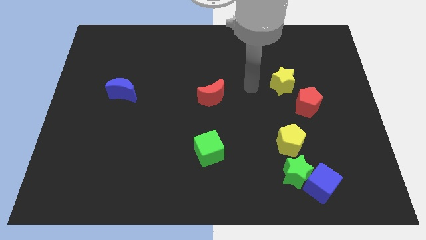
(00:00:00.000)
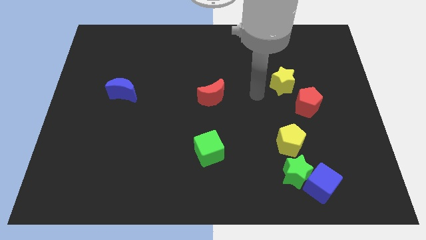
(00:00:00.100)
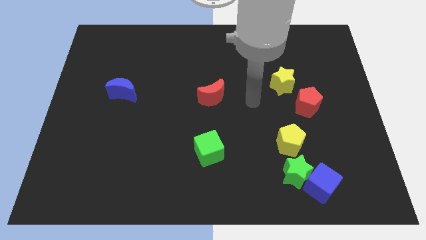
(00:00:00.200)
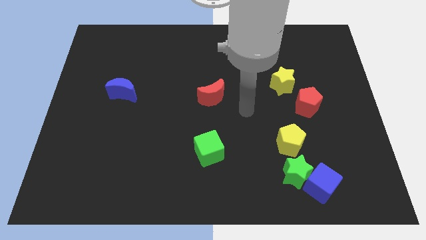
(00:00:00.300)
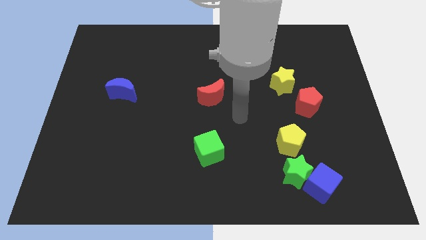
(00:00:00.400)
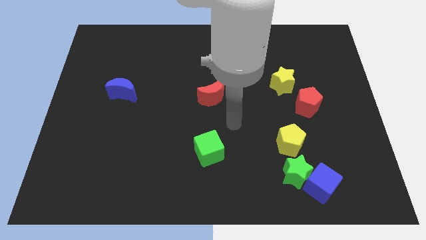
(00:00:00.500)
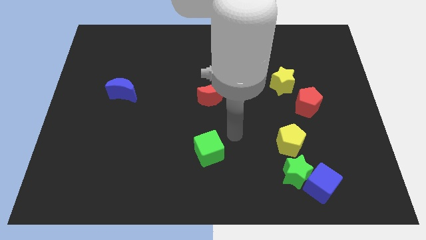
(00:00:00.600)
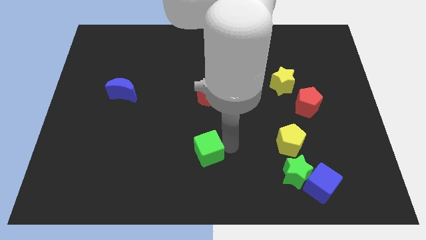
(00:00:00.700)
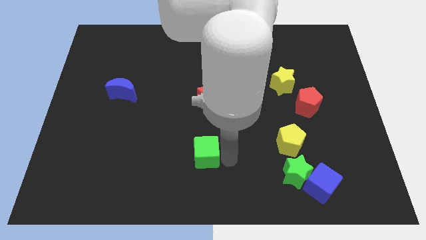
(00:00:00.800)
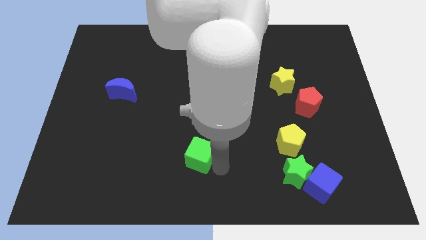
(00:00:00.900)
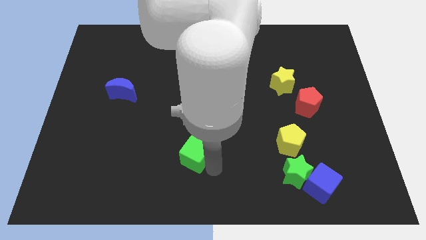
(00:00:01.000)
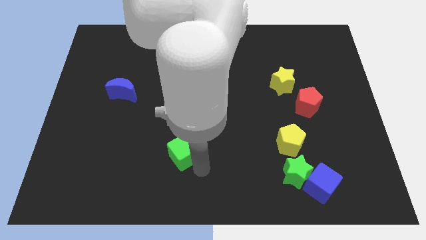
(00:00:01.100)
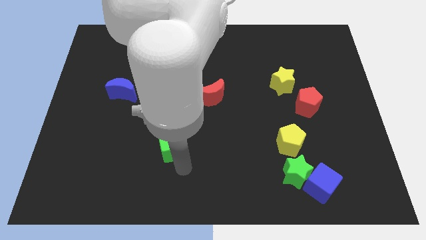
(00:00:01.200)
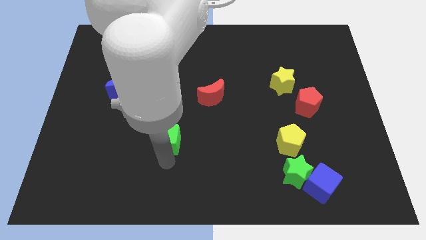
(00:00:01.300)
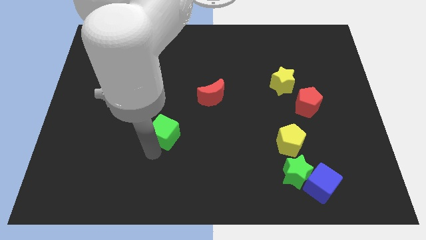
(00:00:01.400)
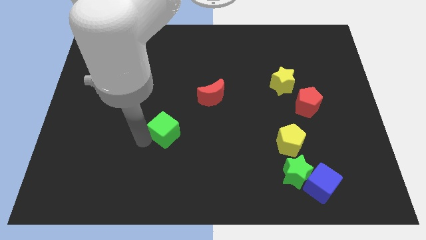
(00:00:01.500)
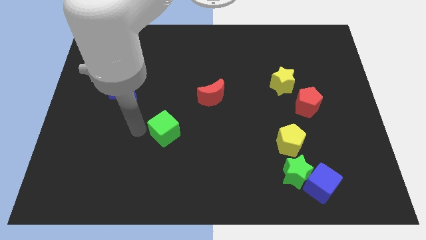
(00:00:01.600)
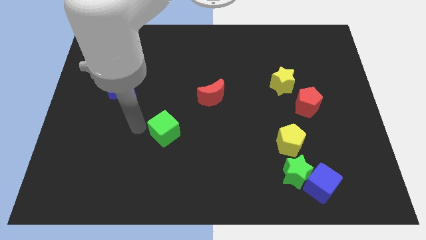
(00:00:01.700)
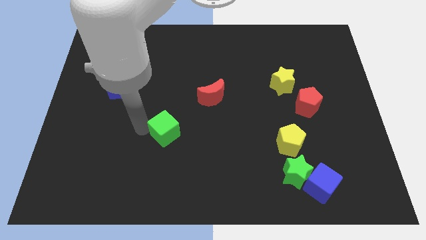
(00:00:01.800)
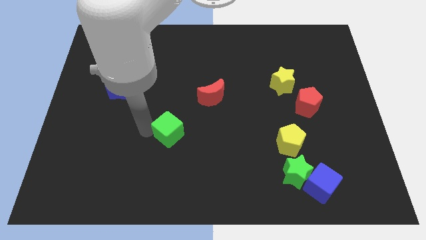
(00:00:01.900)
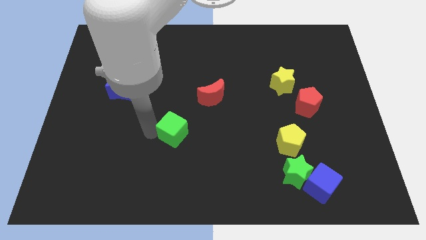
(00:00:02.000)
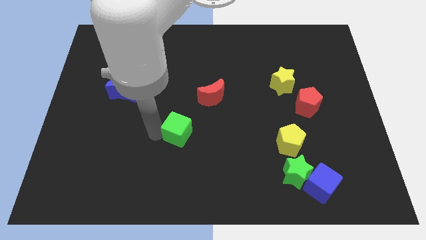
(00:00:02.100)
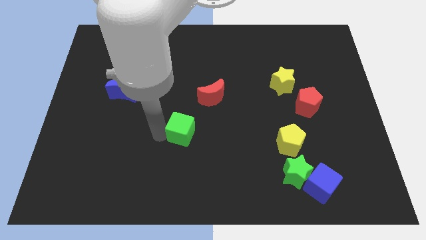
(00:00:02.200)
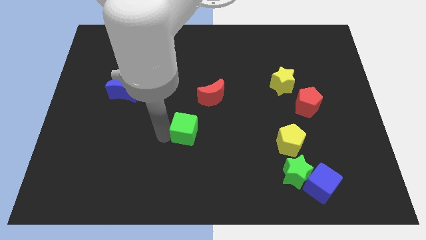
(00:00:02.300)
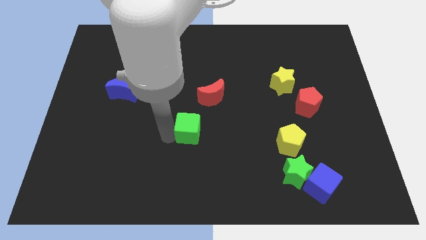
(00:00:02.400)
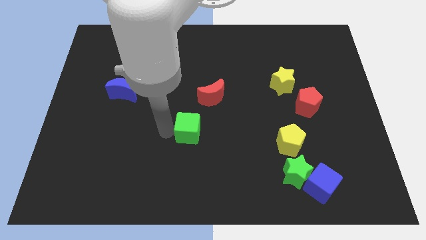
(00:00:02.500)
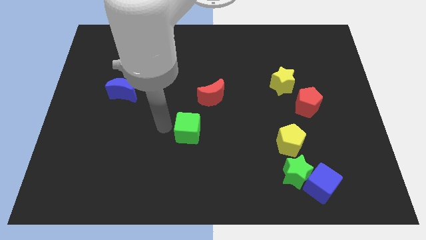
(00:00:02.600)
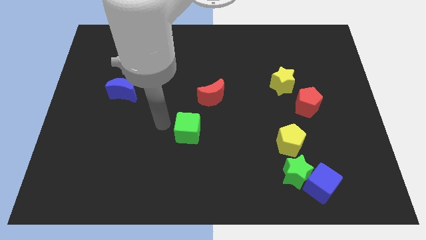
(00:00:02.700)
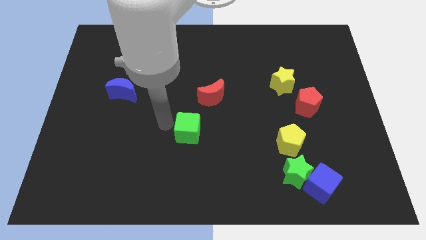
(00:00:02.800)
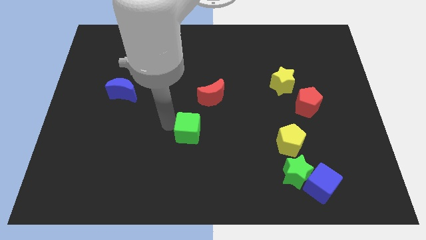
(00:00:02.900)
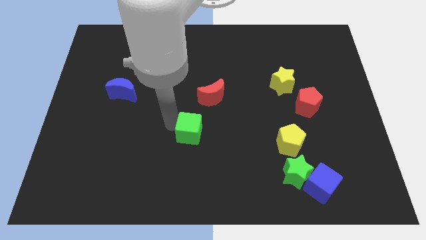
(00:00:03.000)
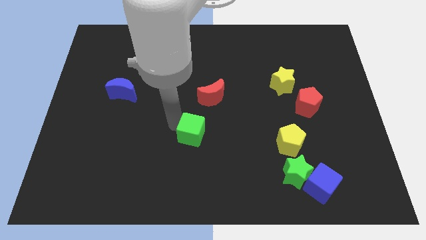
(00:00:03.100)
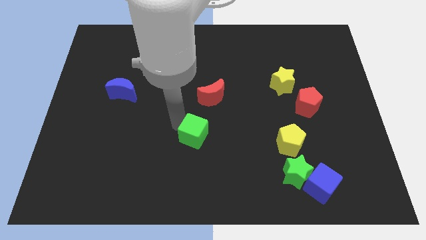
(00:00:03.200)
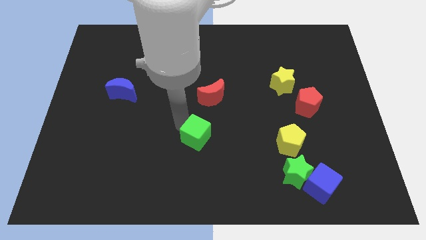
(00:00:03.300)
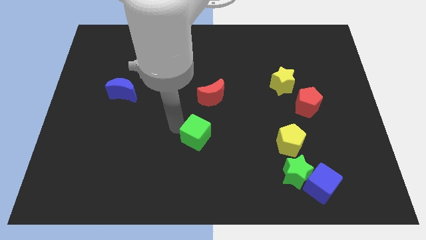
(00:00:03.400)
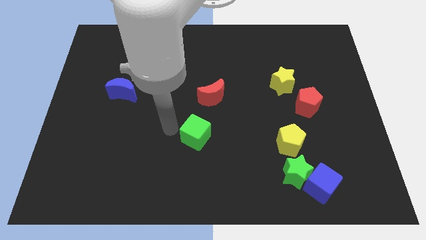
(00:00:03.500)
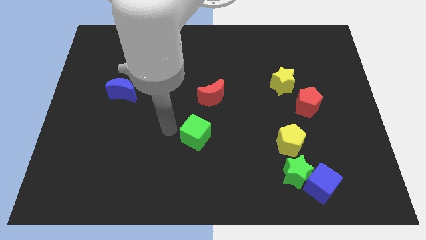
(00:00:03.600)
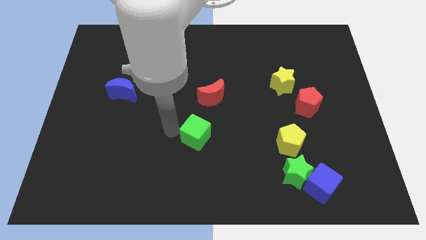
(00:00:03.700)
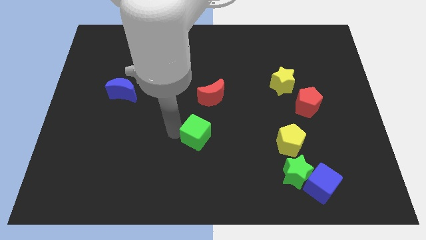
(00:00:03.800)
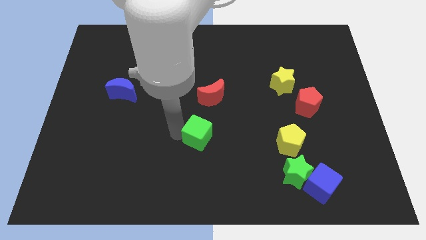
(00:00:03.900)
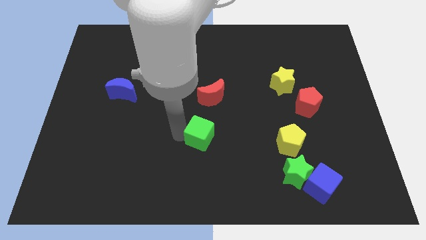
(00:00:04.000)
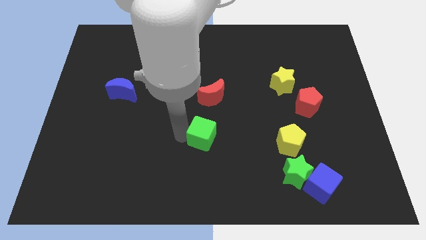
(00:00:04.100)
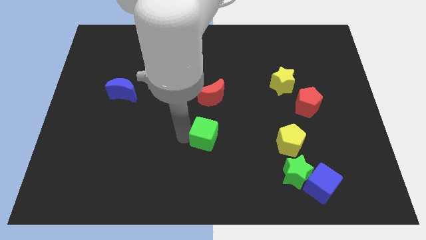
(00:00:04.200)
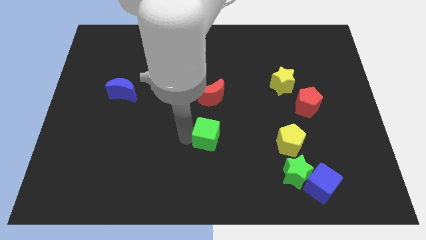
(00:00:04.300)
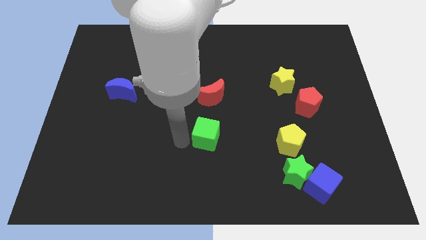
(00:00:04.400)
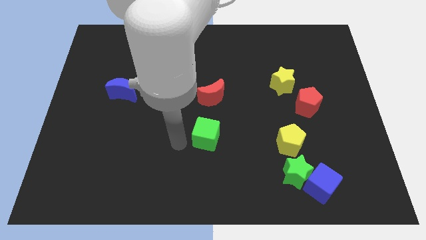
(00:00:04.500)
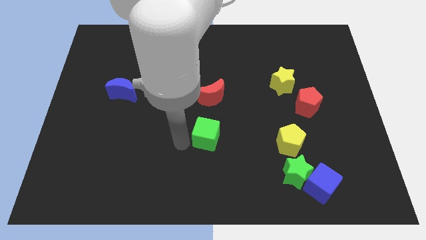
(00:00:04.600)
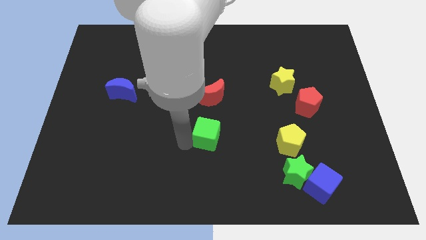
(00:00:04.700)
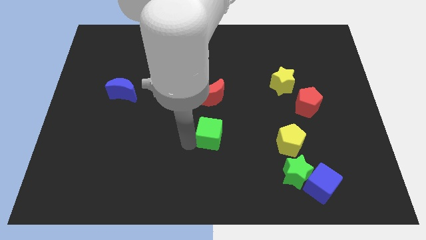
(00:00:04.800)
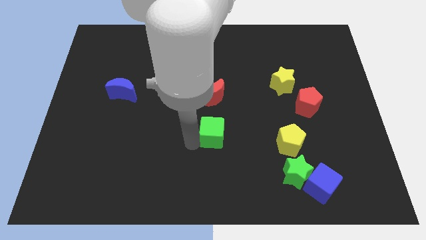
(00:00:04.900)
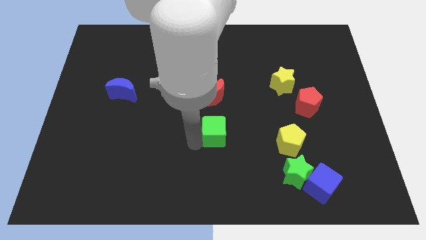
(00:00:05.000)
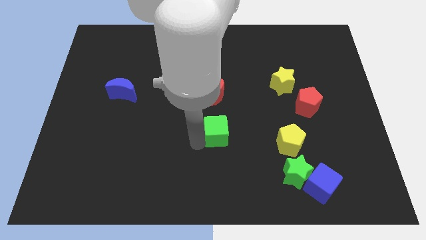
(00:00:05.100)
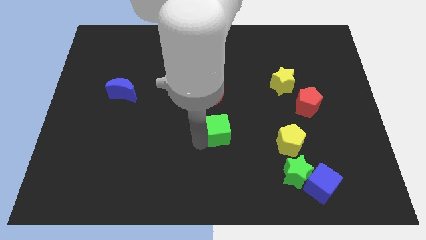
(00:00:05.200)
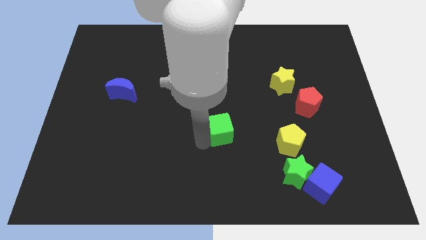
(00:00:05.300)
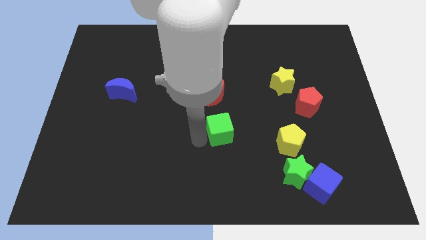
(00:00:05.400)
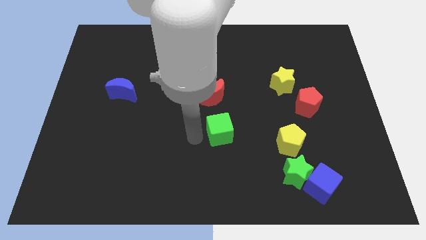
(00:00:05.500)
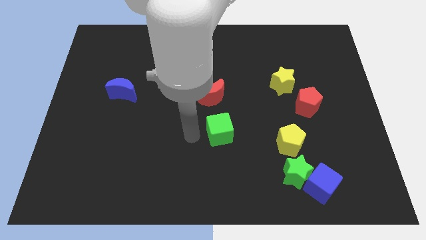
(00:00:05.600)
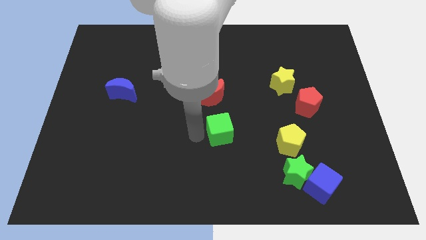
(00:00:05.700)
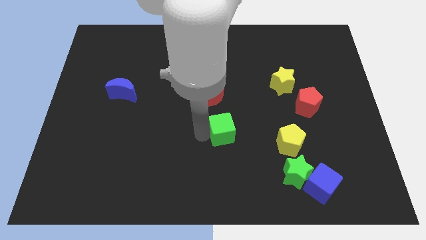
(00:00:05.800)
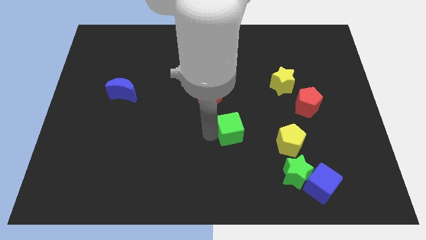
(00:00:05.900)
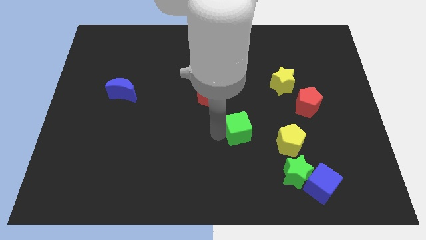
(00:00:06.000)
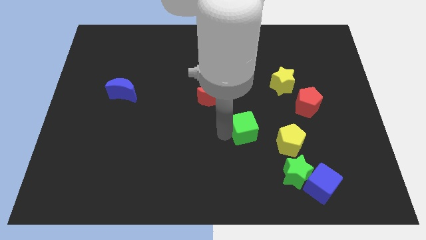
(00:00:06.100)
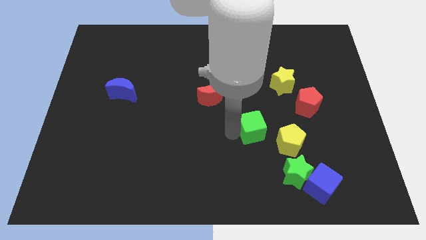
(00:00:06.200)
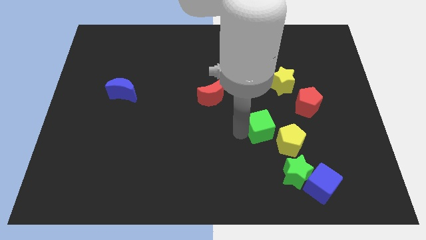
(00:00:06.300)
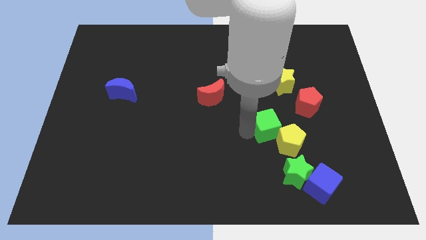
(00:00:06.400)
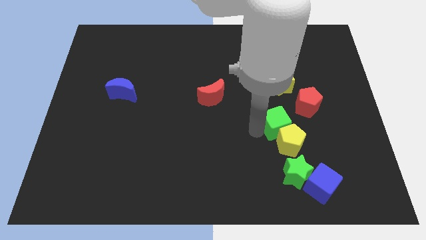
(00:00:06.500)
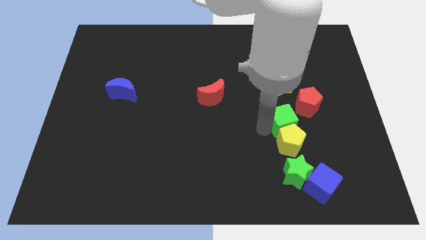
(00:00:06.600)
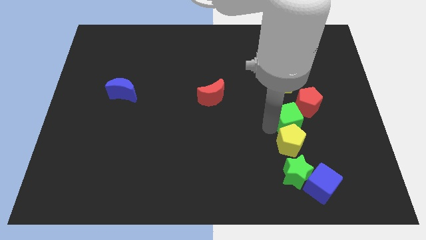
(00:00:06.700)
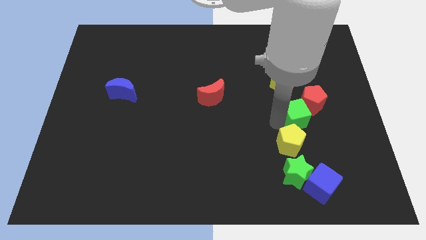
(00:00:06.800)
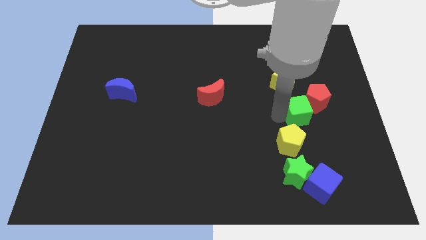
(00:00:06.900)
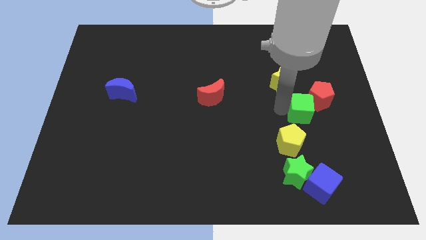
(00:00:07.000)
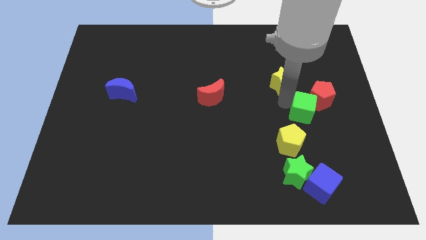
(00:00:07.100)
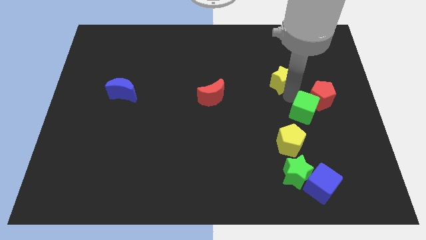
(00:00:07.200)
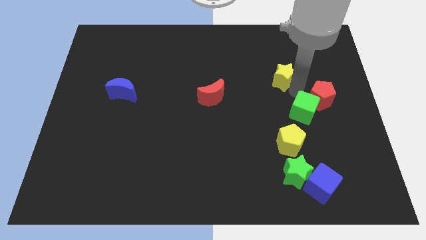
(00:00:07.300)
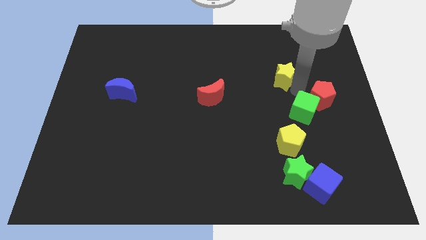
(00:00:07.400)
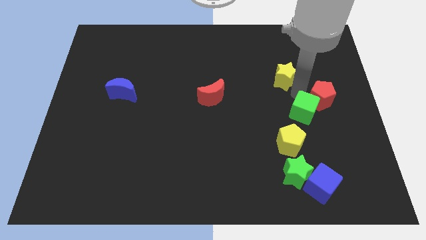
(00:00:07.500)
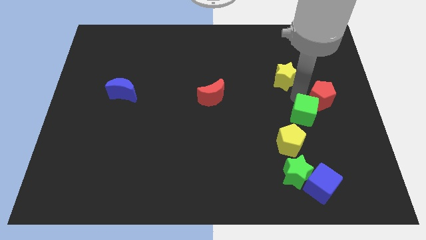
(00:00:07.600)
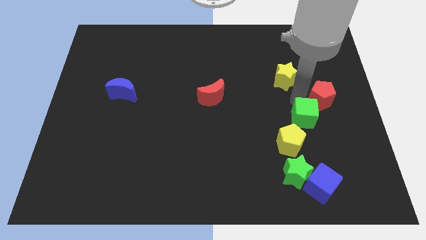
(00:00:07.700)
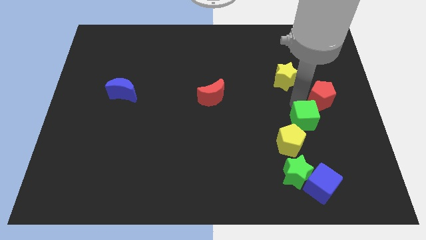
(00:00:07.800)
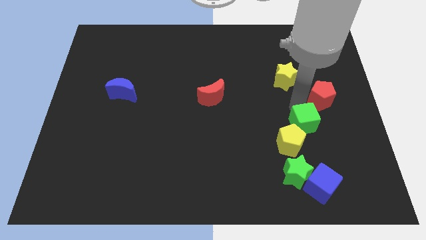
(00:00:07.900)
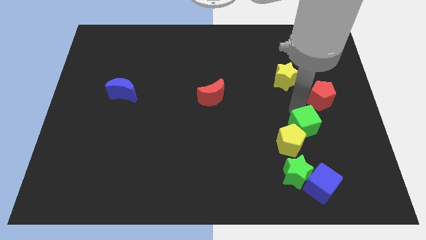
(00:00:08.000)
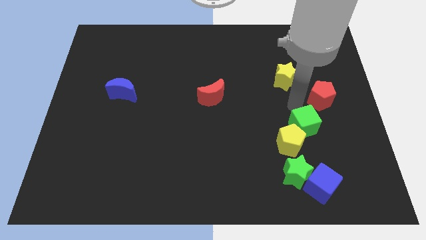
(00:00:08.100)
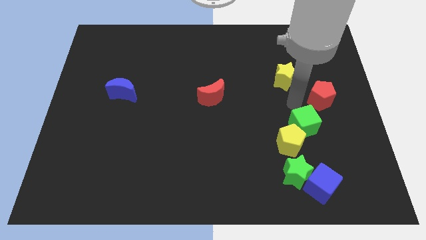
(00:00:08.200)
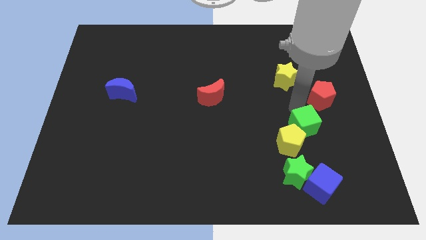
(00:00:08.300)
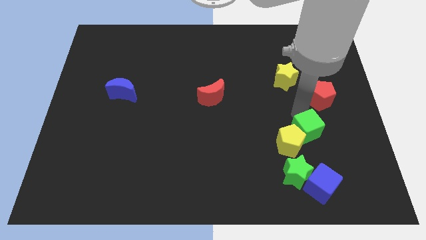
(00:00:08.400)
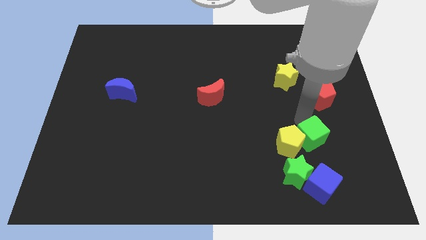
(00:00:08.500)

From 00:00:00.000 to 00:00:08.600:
slide the green cube diagonally up and to the right of the green star
